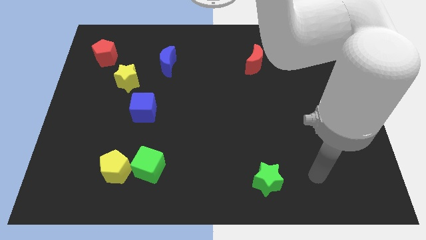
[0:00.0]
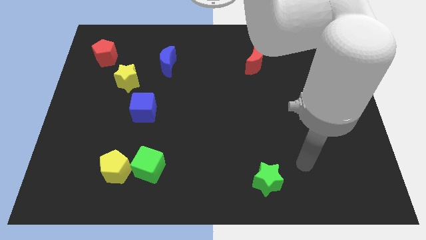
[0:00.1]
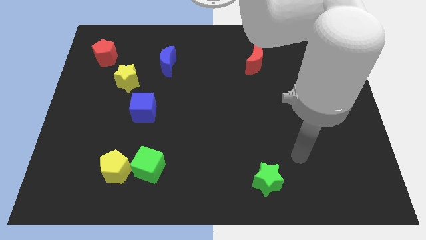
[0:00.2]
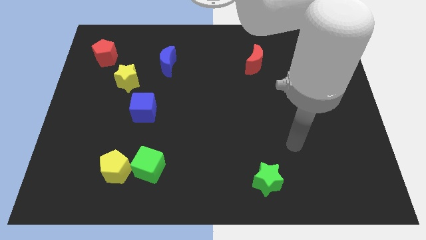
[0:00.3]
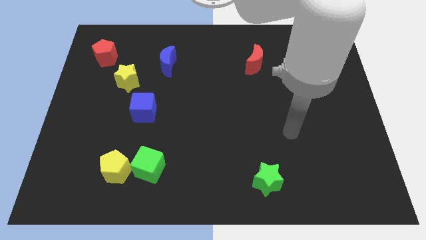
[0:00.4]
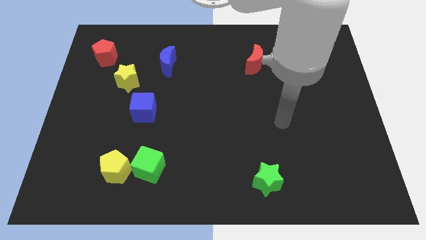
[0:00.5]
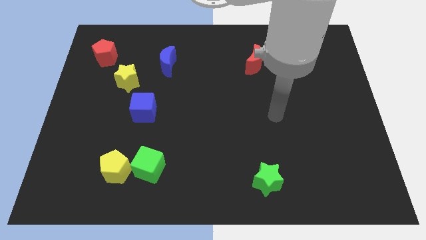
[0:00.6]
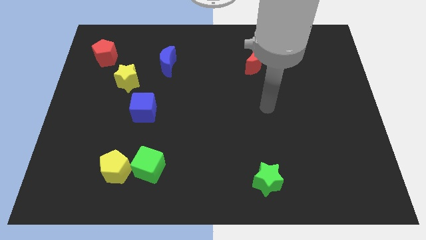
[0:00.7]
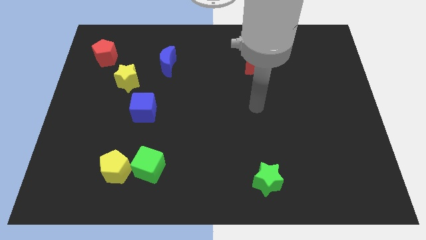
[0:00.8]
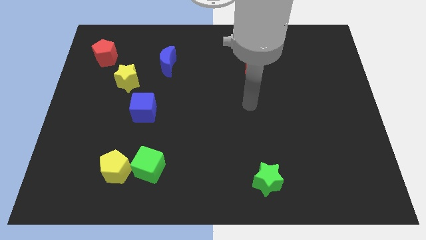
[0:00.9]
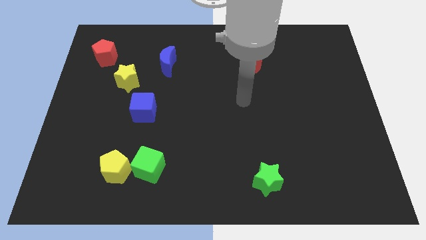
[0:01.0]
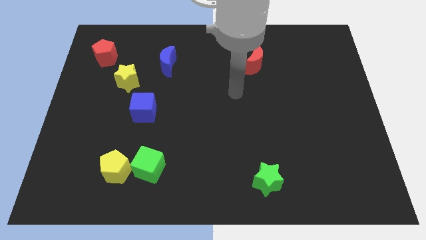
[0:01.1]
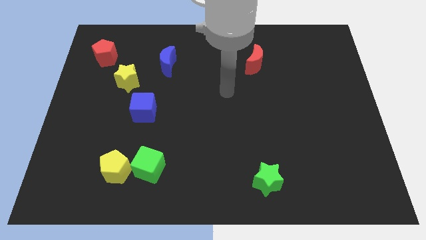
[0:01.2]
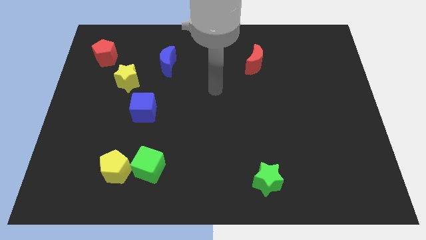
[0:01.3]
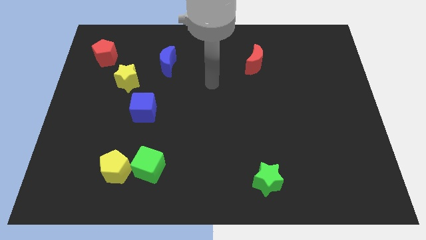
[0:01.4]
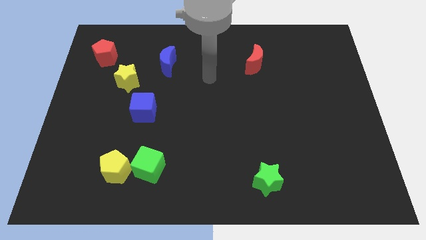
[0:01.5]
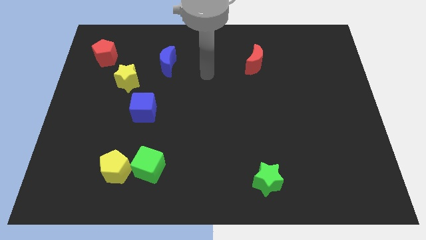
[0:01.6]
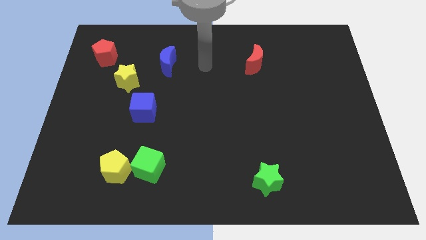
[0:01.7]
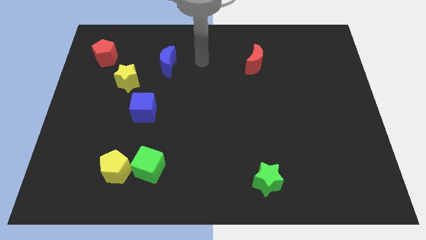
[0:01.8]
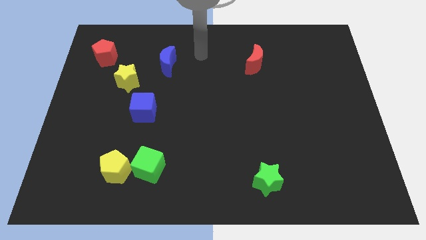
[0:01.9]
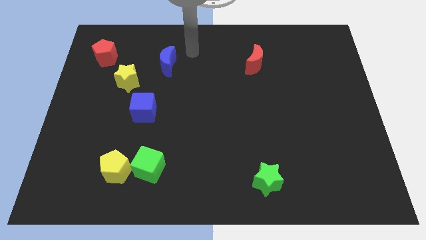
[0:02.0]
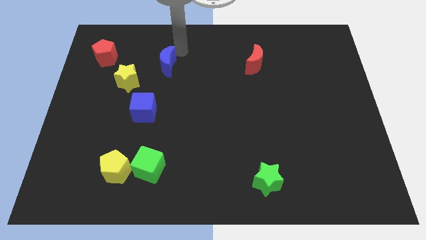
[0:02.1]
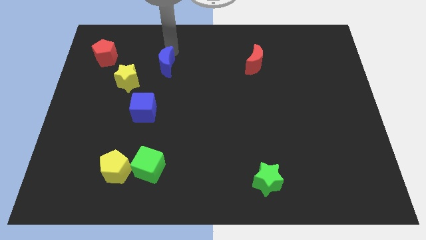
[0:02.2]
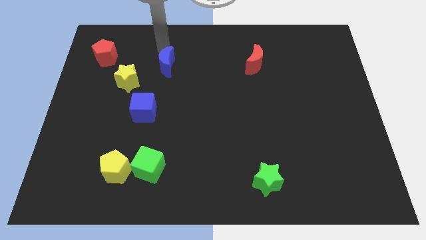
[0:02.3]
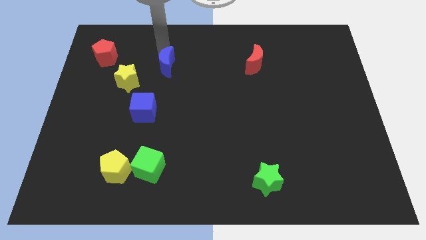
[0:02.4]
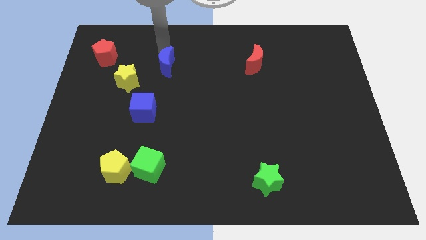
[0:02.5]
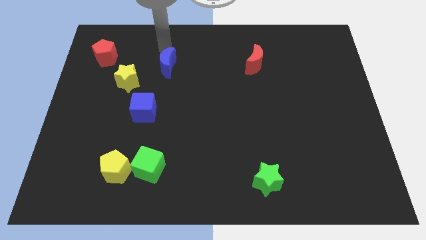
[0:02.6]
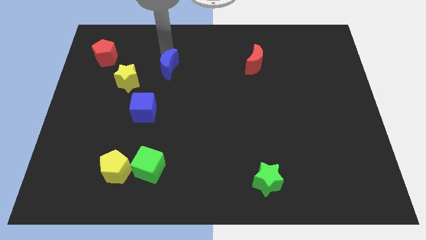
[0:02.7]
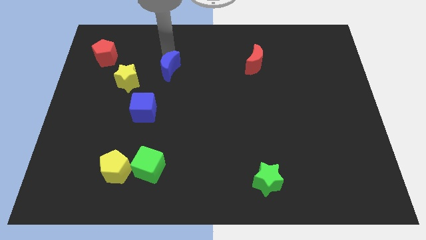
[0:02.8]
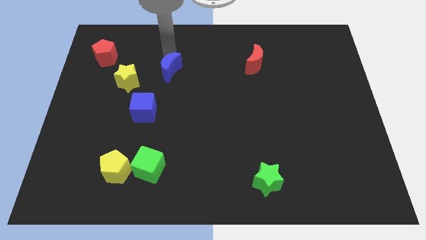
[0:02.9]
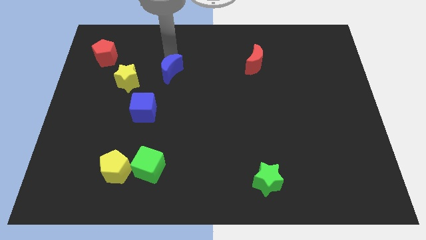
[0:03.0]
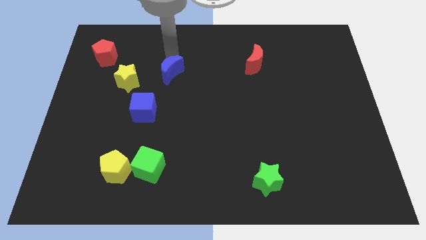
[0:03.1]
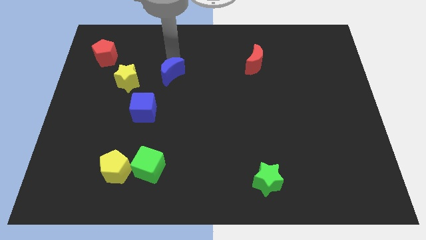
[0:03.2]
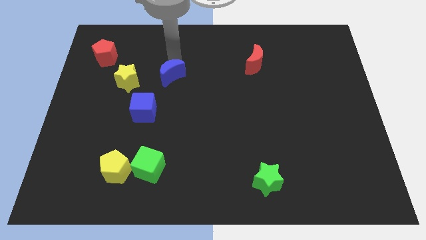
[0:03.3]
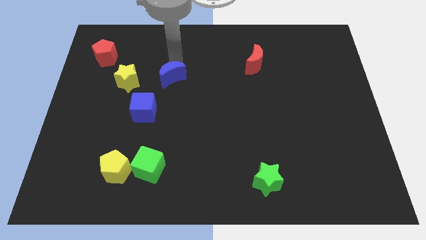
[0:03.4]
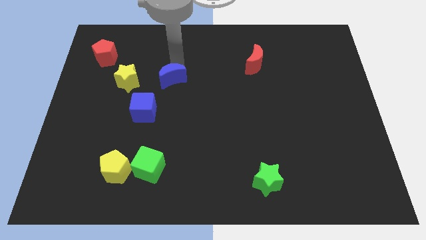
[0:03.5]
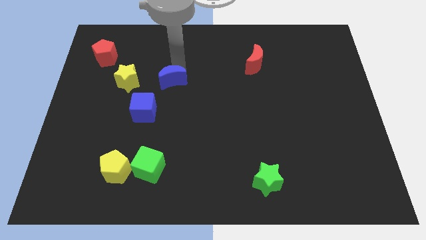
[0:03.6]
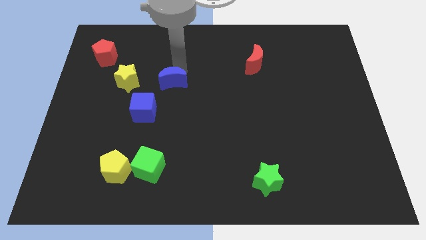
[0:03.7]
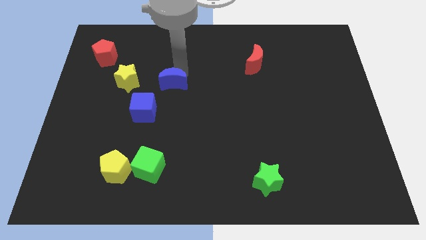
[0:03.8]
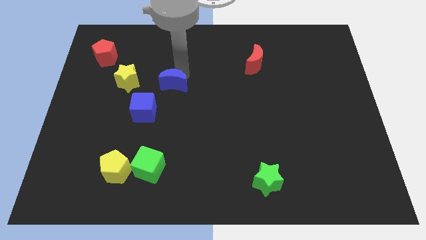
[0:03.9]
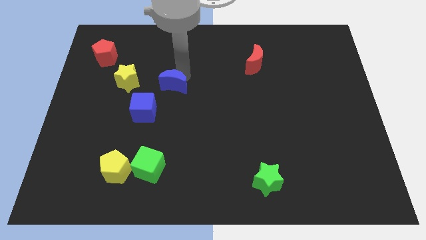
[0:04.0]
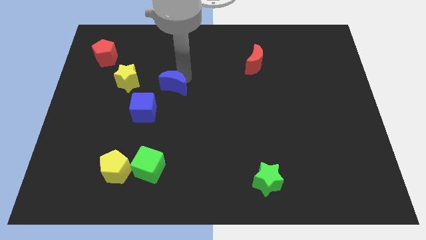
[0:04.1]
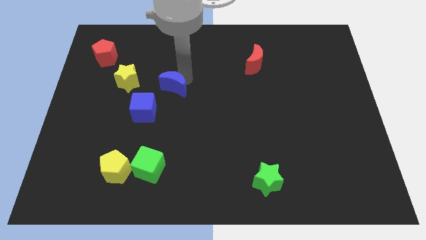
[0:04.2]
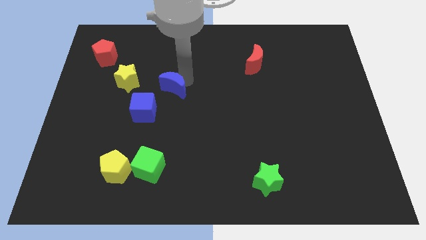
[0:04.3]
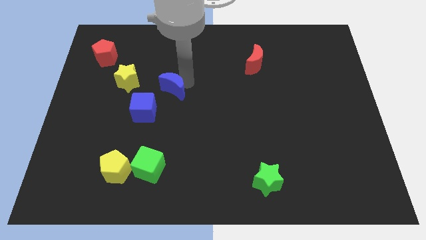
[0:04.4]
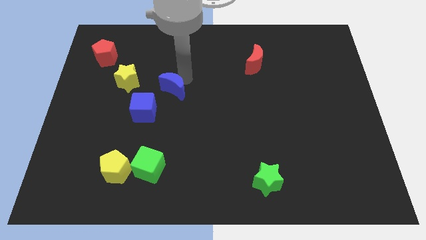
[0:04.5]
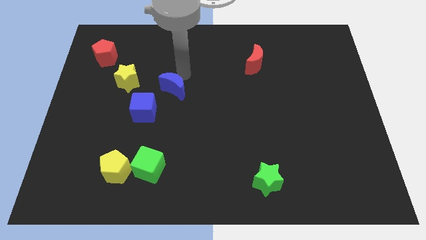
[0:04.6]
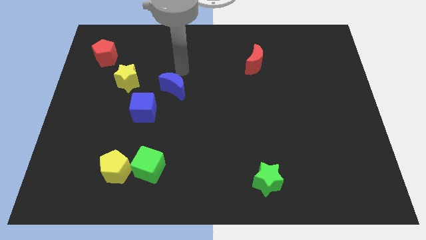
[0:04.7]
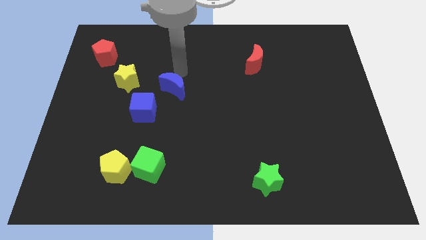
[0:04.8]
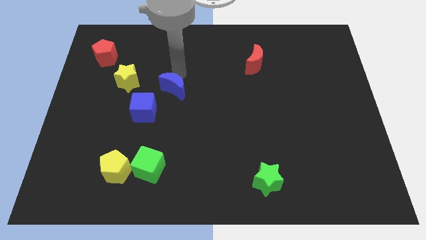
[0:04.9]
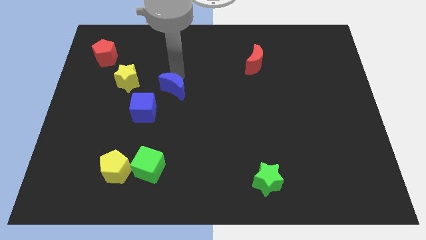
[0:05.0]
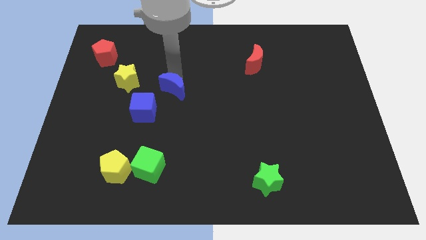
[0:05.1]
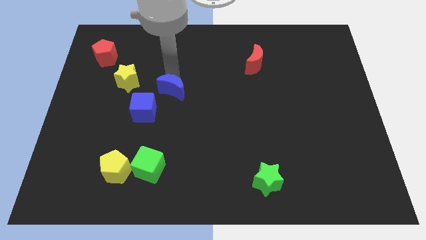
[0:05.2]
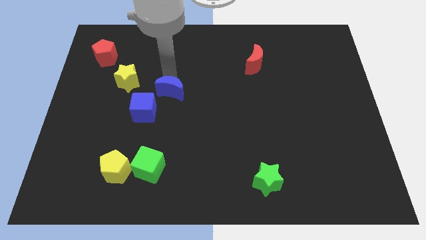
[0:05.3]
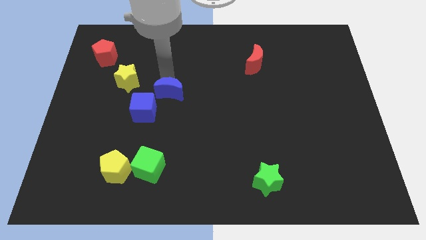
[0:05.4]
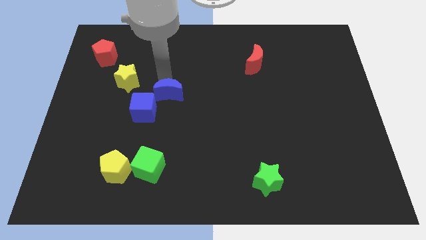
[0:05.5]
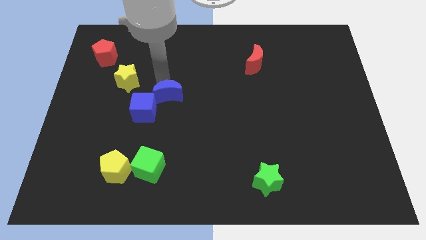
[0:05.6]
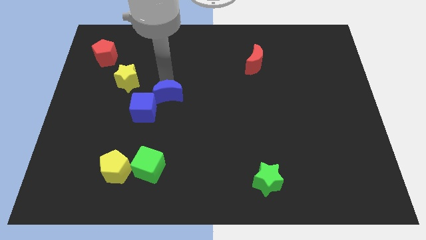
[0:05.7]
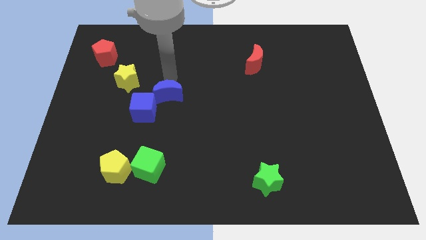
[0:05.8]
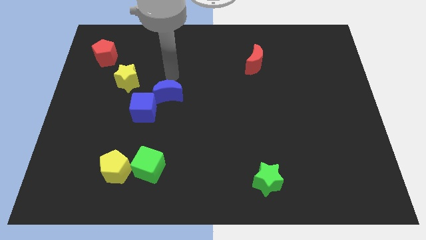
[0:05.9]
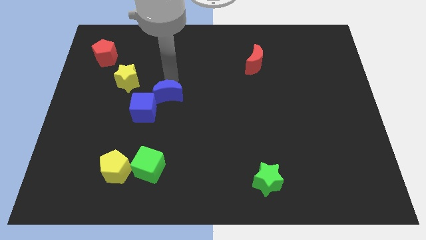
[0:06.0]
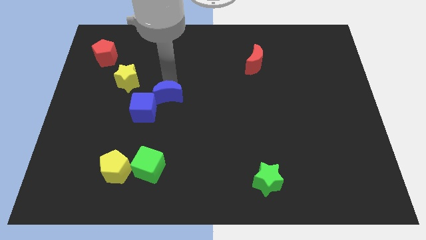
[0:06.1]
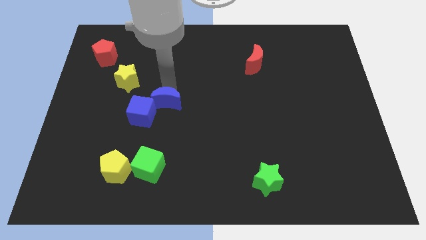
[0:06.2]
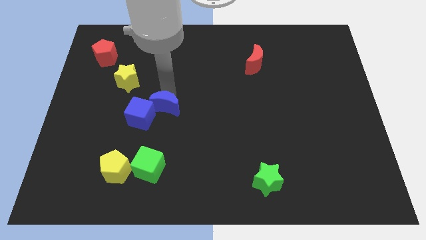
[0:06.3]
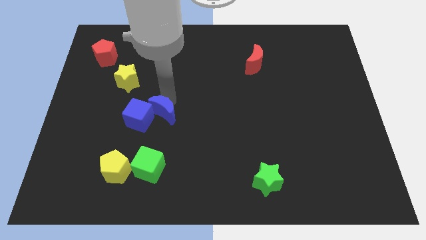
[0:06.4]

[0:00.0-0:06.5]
put the blue moon above the green cube
